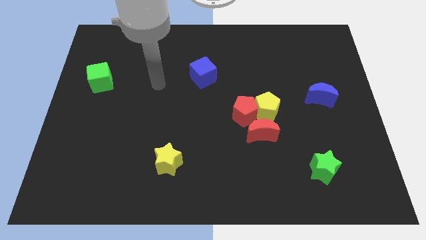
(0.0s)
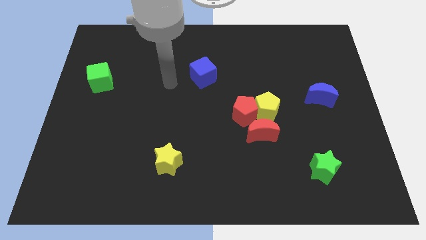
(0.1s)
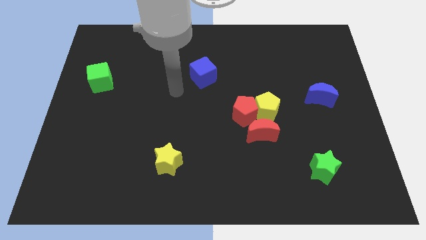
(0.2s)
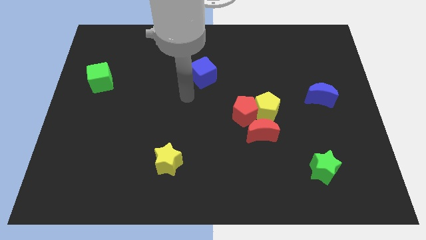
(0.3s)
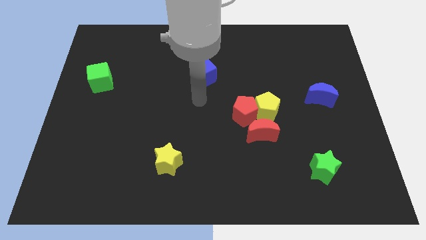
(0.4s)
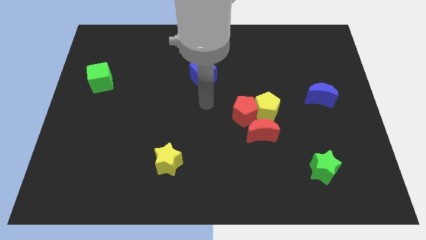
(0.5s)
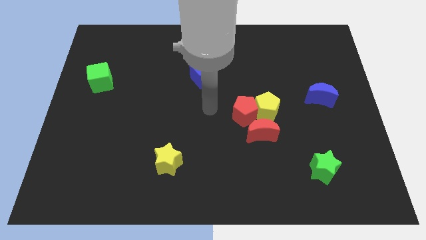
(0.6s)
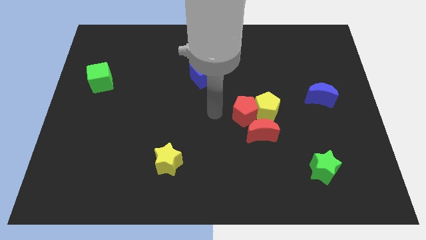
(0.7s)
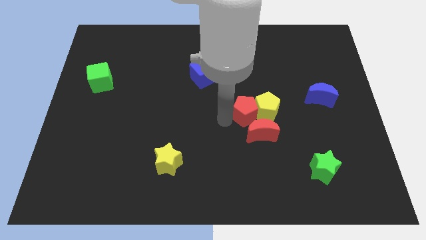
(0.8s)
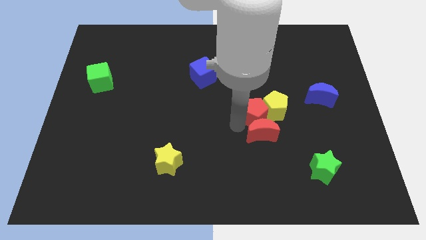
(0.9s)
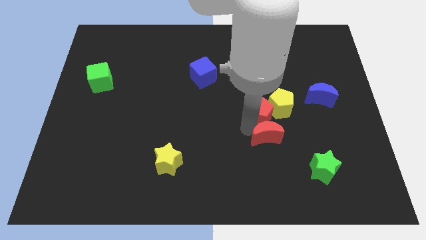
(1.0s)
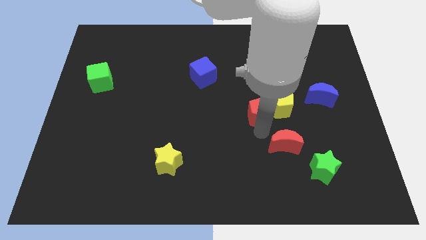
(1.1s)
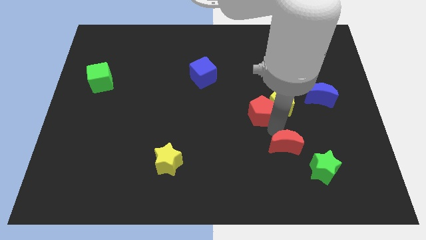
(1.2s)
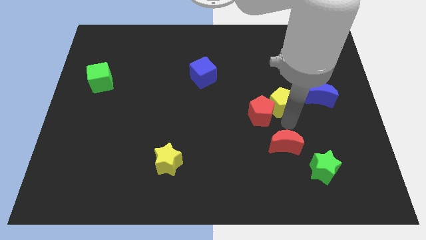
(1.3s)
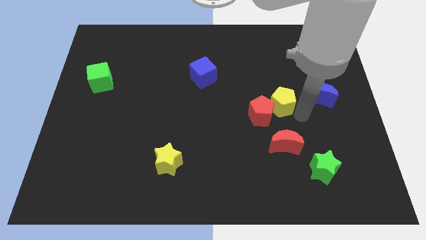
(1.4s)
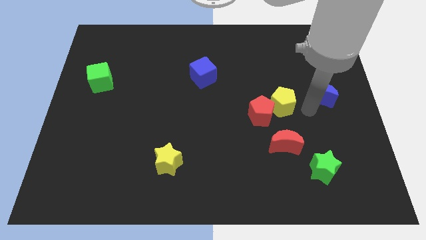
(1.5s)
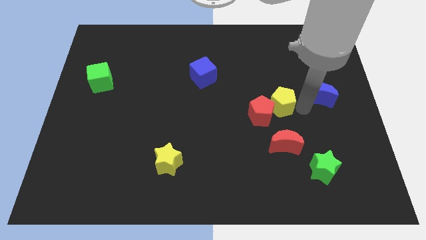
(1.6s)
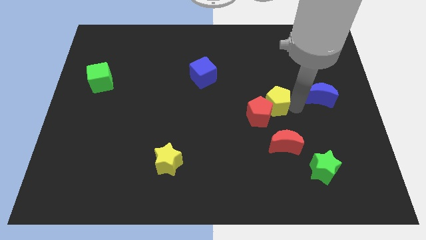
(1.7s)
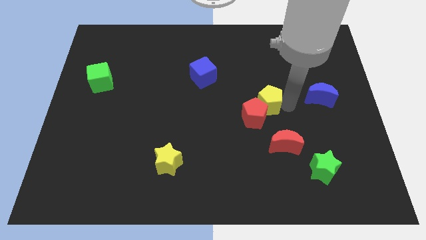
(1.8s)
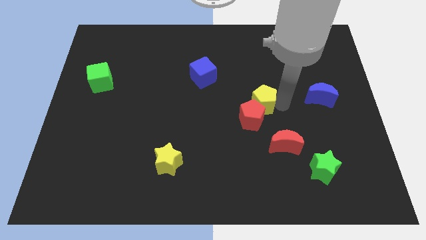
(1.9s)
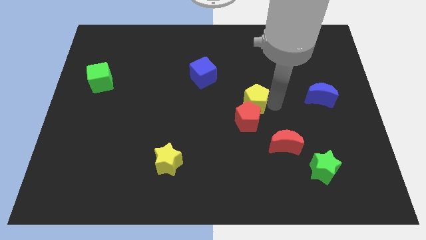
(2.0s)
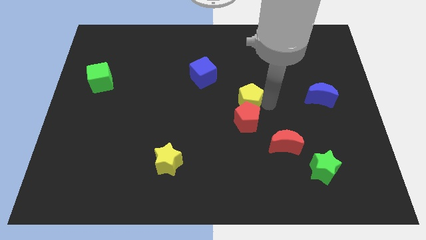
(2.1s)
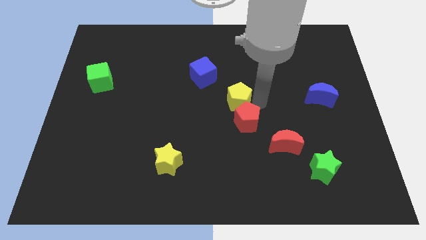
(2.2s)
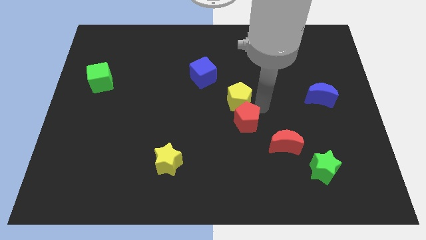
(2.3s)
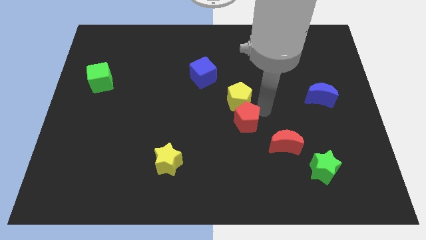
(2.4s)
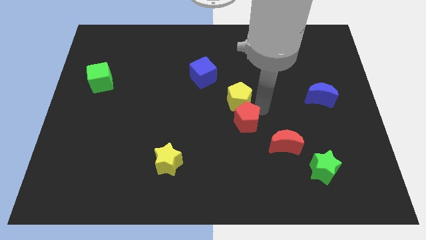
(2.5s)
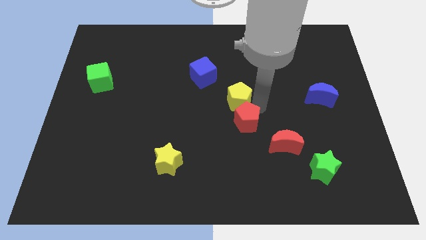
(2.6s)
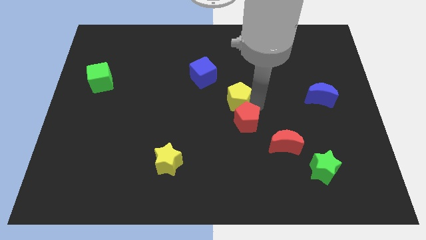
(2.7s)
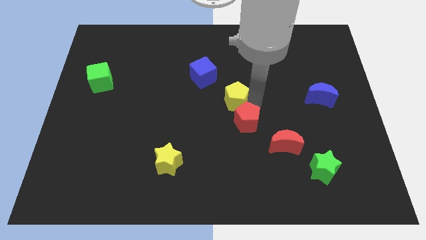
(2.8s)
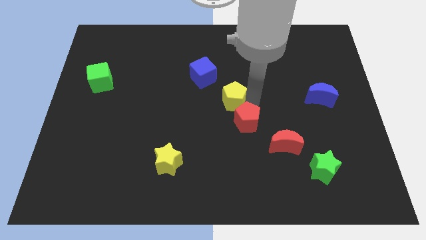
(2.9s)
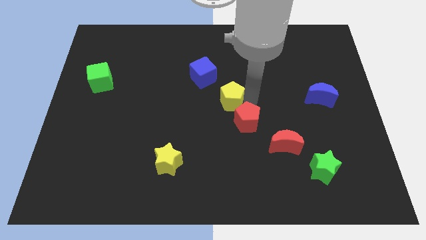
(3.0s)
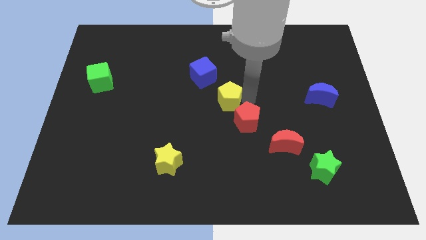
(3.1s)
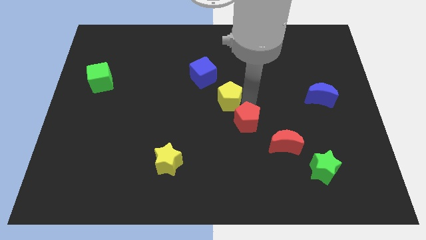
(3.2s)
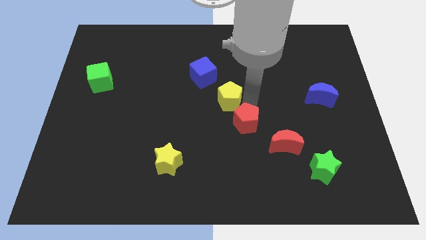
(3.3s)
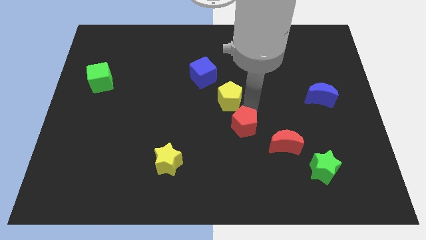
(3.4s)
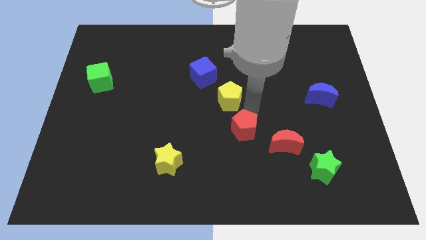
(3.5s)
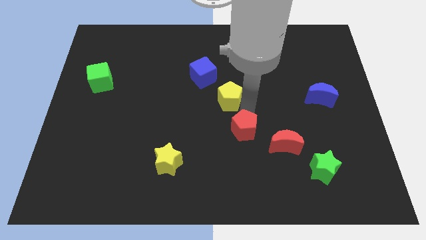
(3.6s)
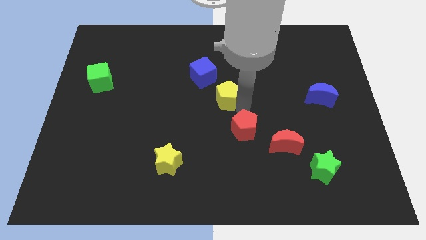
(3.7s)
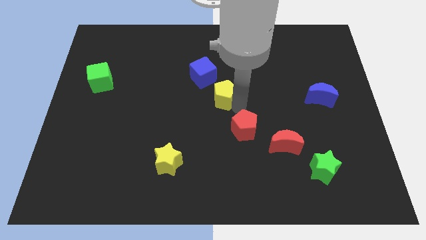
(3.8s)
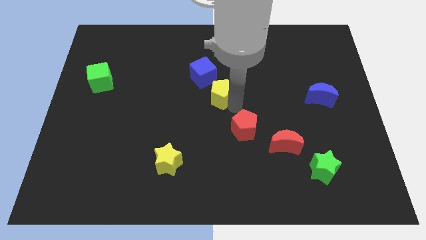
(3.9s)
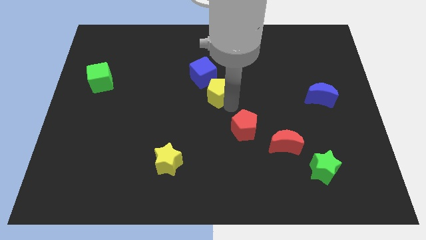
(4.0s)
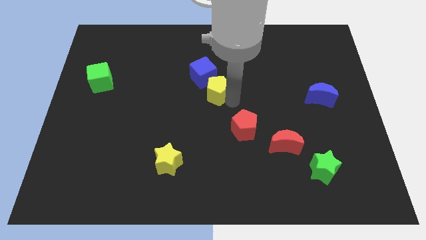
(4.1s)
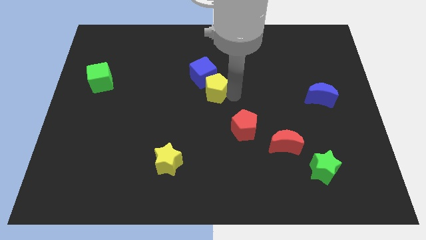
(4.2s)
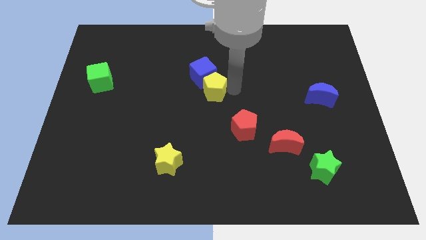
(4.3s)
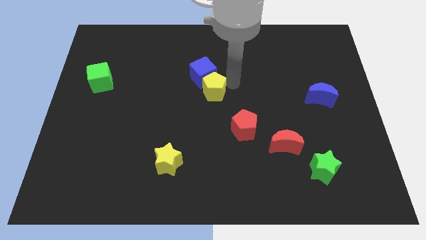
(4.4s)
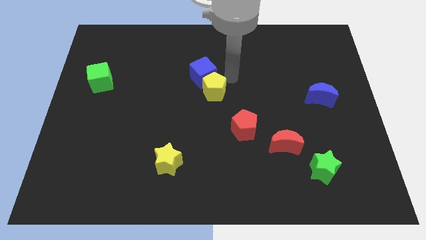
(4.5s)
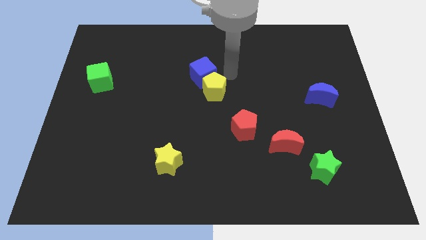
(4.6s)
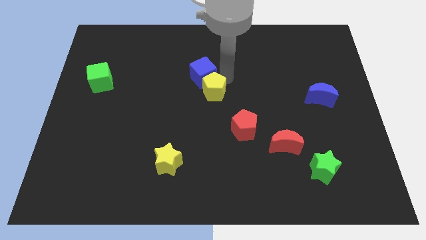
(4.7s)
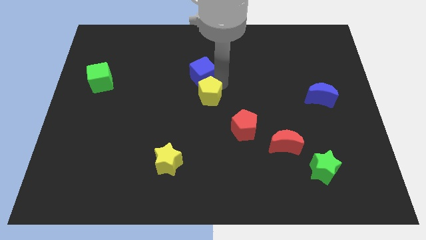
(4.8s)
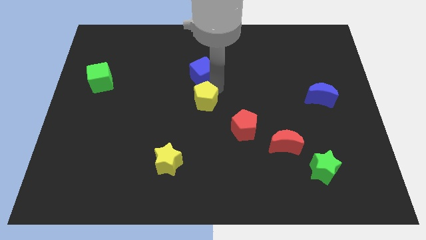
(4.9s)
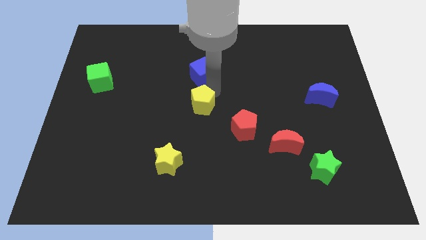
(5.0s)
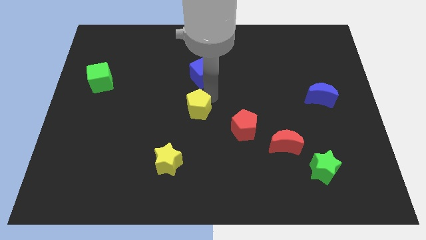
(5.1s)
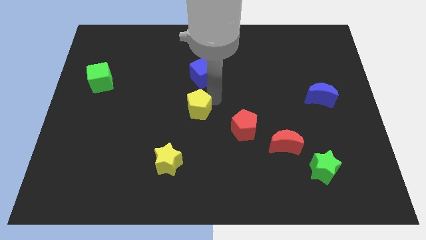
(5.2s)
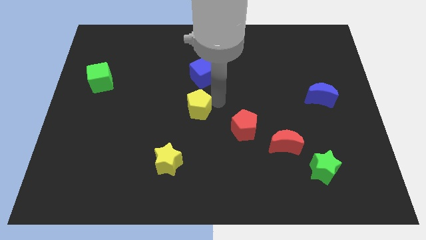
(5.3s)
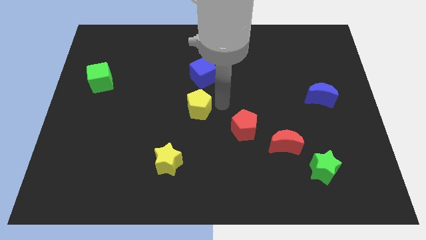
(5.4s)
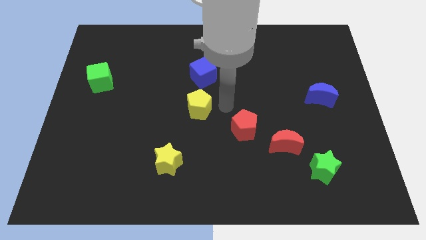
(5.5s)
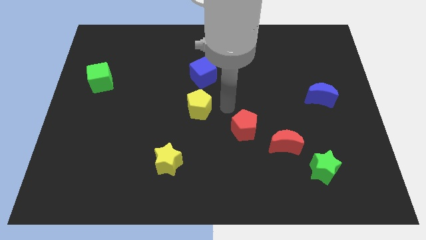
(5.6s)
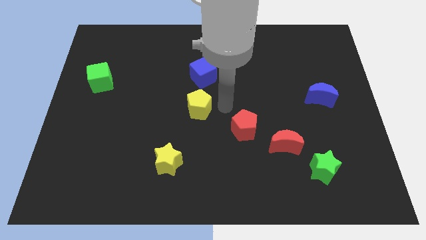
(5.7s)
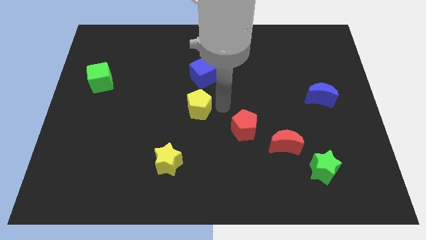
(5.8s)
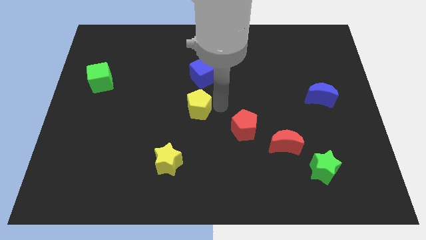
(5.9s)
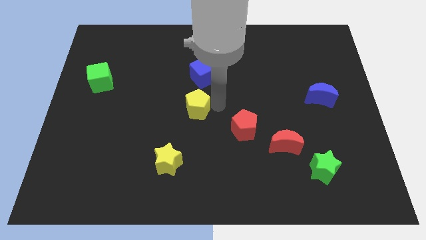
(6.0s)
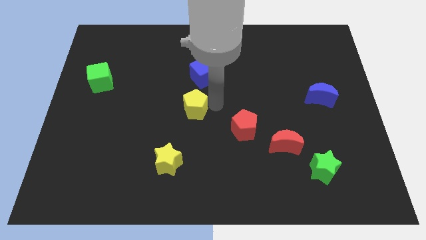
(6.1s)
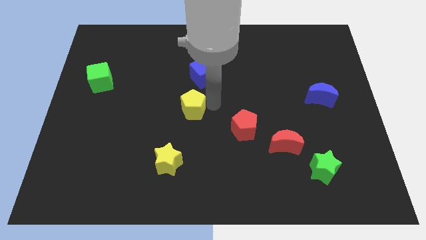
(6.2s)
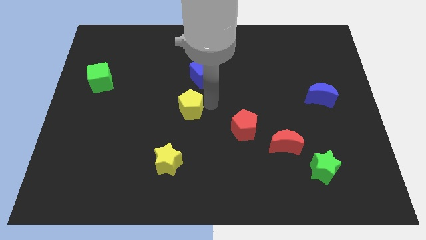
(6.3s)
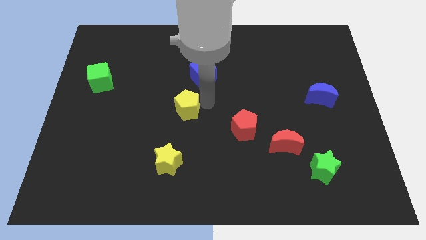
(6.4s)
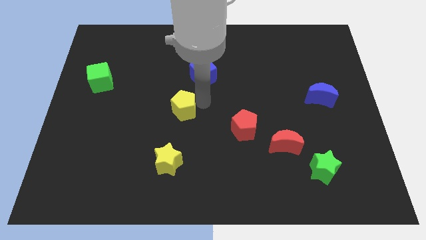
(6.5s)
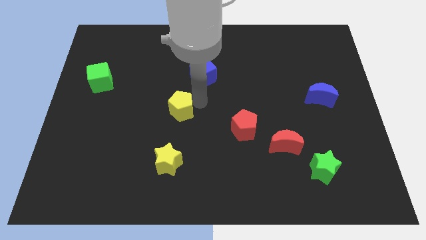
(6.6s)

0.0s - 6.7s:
push the yellow pentagon left

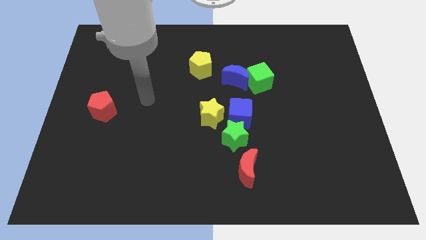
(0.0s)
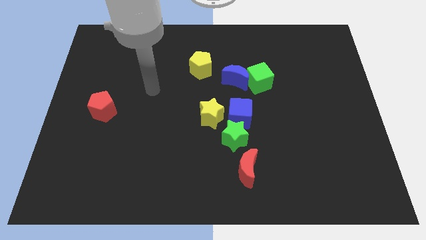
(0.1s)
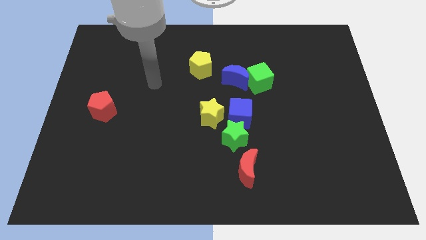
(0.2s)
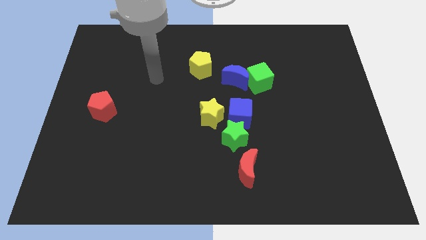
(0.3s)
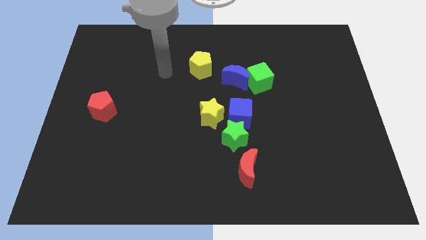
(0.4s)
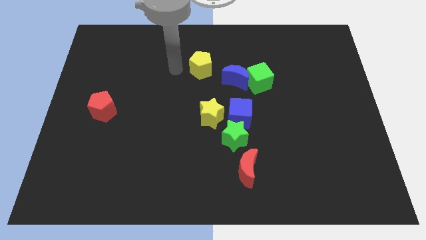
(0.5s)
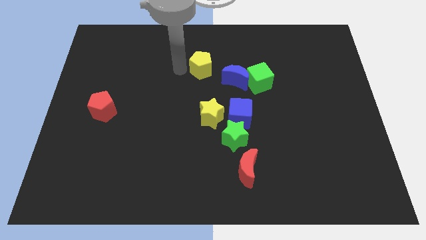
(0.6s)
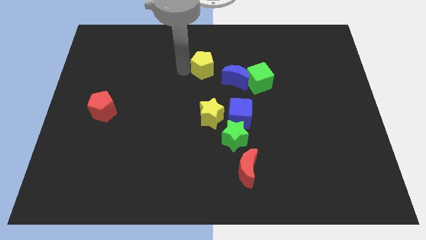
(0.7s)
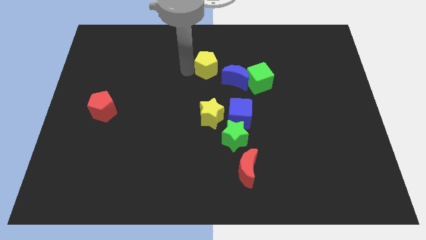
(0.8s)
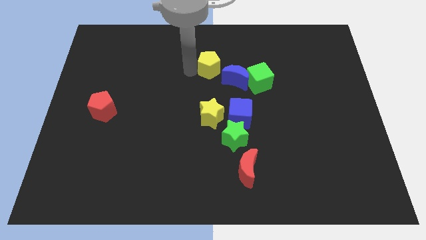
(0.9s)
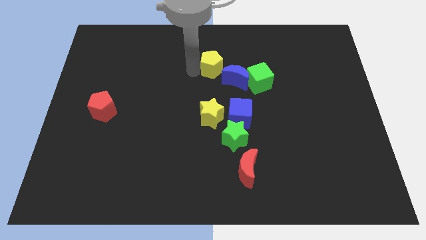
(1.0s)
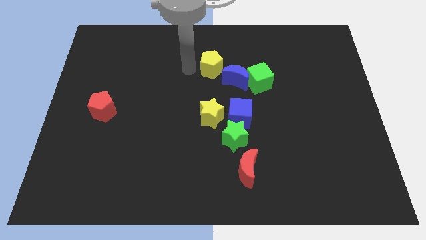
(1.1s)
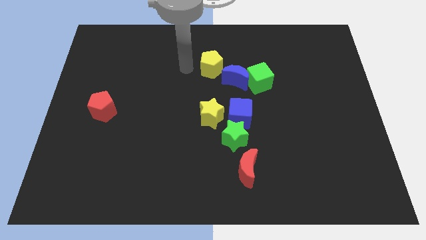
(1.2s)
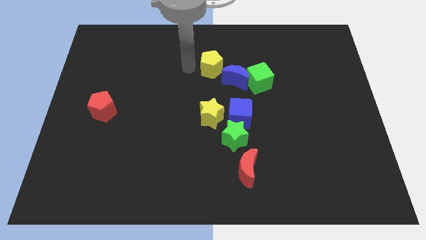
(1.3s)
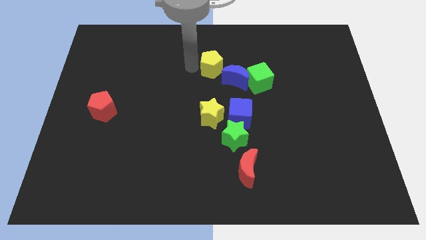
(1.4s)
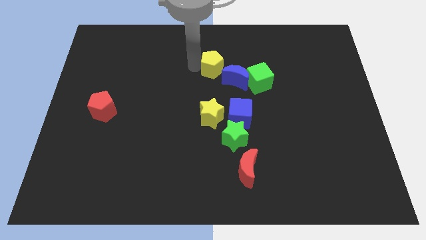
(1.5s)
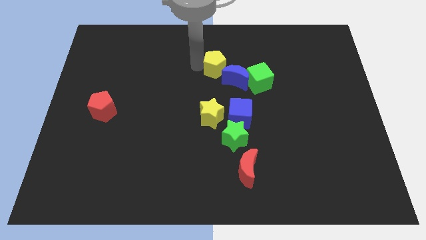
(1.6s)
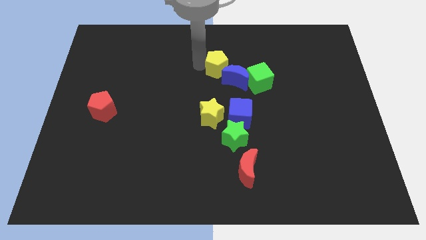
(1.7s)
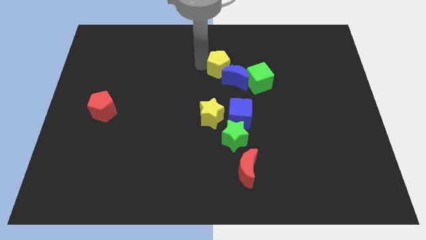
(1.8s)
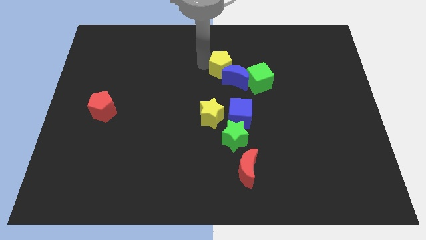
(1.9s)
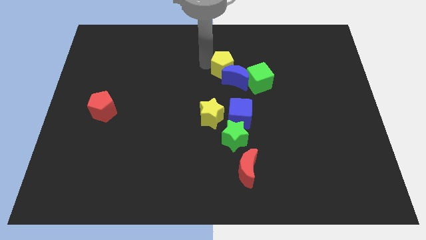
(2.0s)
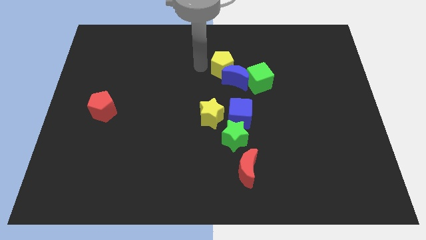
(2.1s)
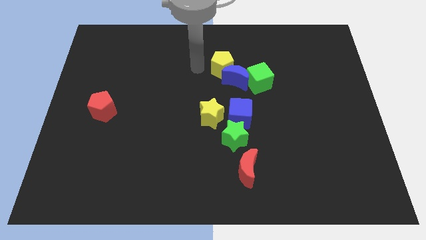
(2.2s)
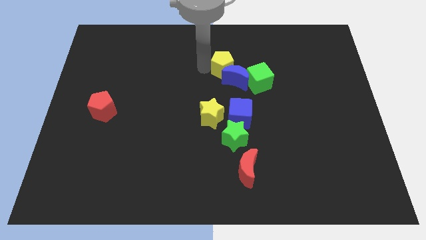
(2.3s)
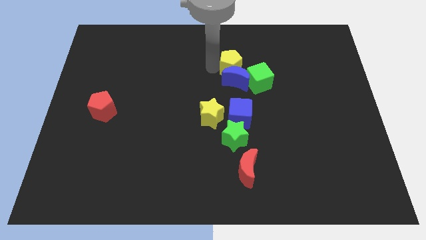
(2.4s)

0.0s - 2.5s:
move the yellow pentagon slightly to the right
